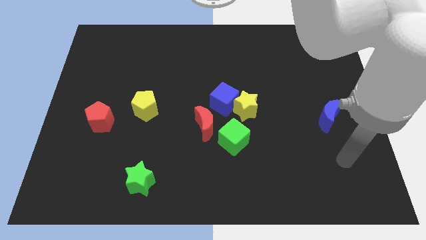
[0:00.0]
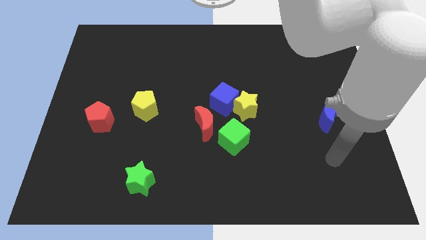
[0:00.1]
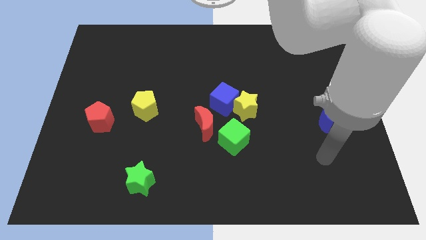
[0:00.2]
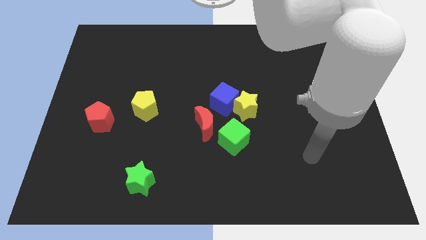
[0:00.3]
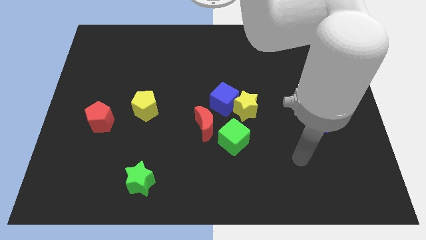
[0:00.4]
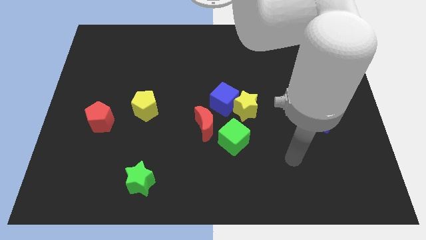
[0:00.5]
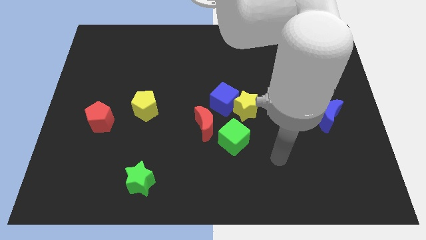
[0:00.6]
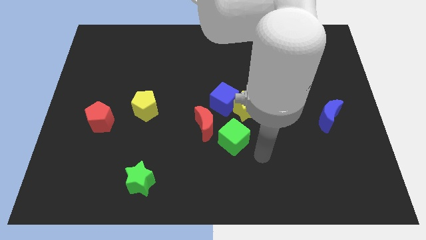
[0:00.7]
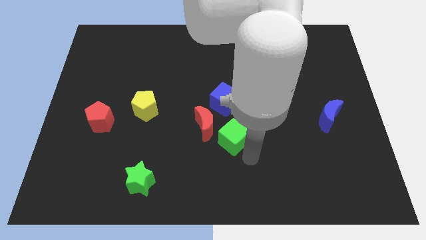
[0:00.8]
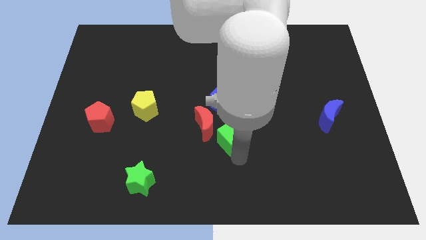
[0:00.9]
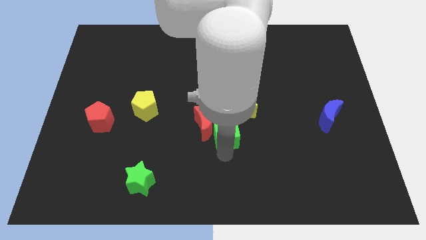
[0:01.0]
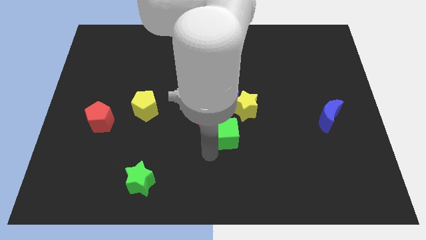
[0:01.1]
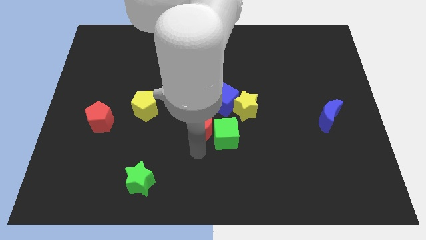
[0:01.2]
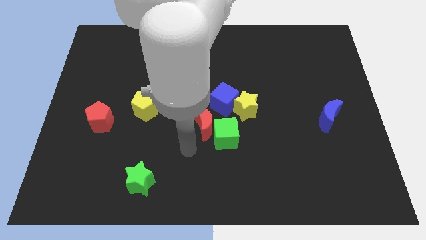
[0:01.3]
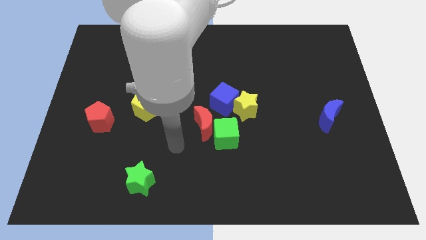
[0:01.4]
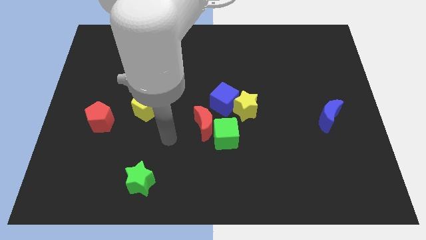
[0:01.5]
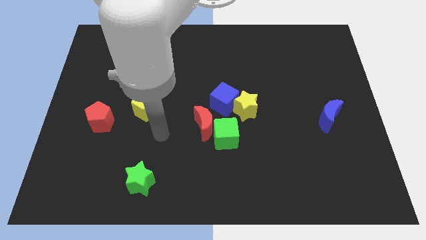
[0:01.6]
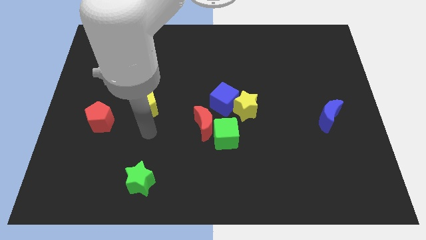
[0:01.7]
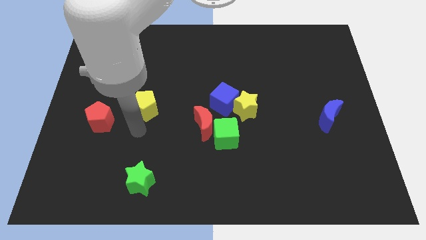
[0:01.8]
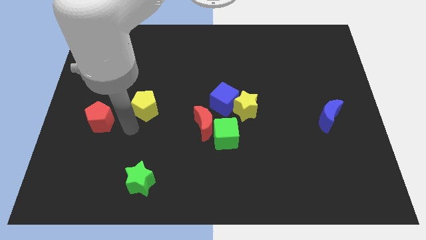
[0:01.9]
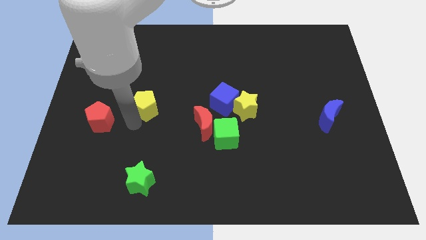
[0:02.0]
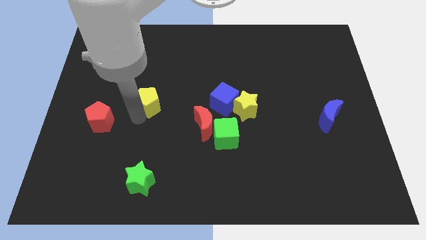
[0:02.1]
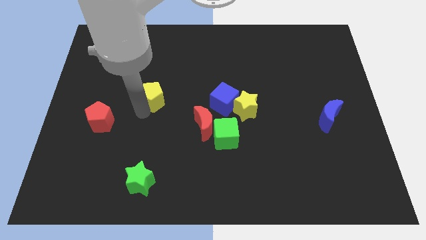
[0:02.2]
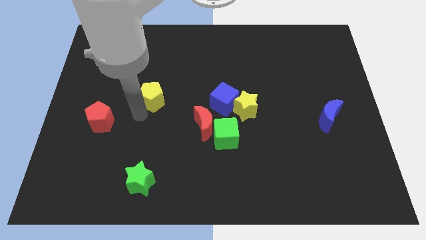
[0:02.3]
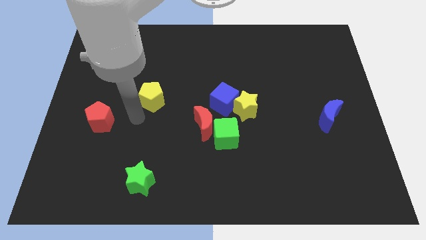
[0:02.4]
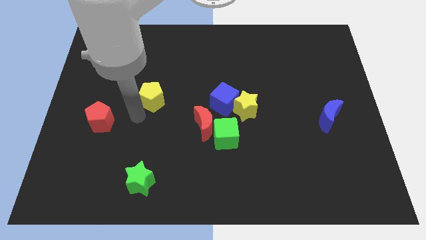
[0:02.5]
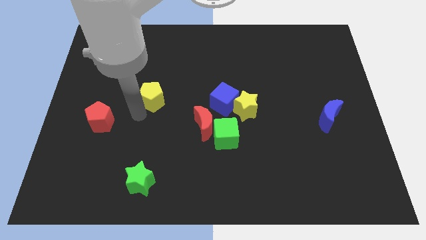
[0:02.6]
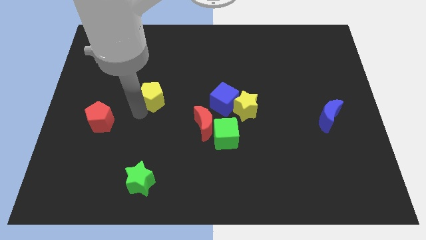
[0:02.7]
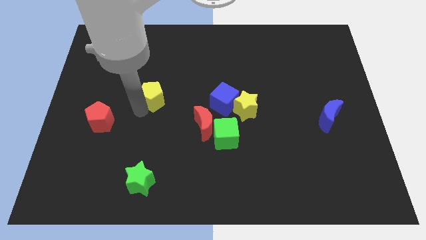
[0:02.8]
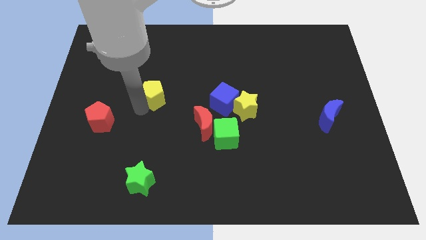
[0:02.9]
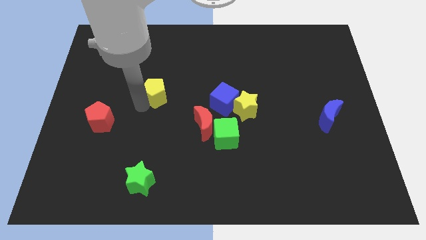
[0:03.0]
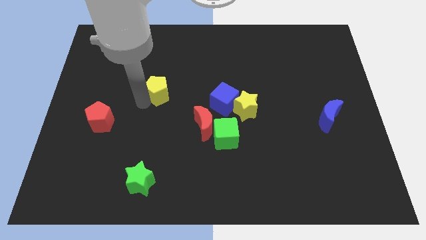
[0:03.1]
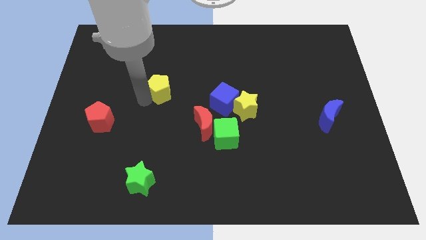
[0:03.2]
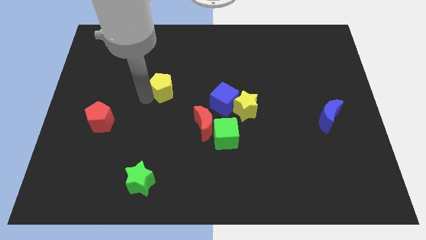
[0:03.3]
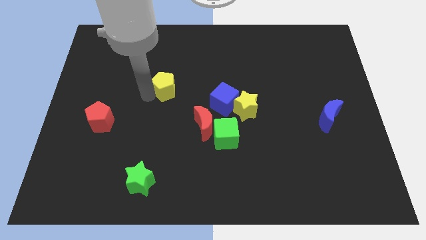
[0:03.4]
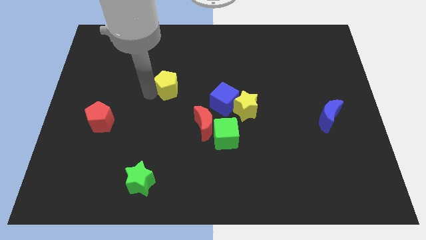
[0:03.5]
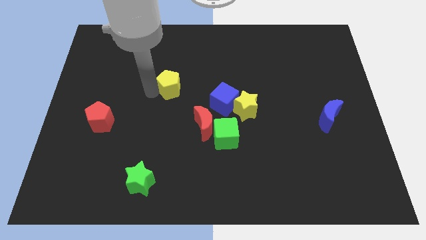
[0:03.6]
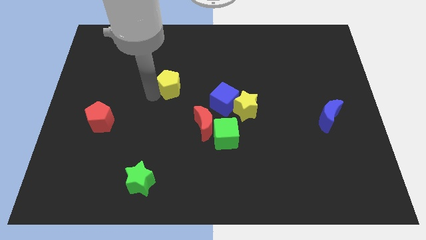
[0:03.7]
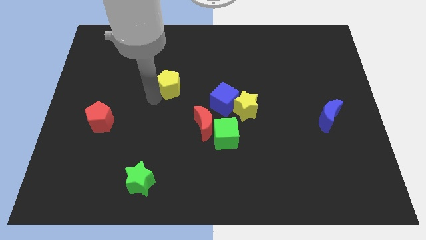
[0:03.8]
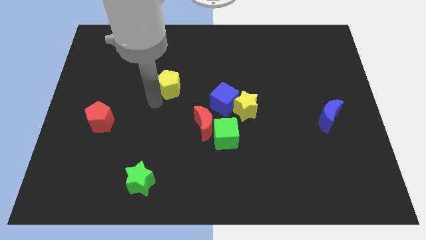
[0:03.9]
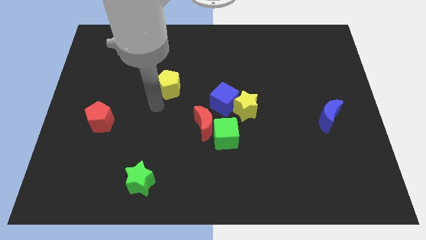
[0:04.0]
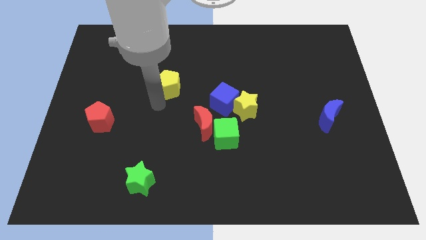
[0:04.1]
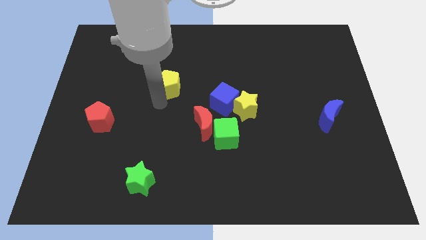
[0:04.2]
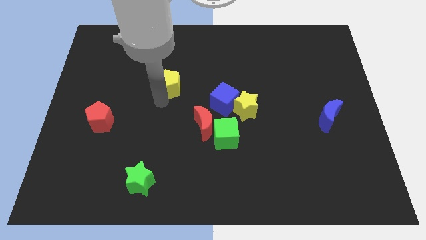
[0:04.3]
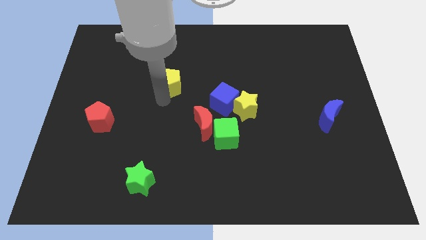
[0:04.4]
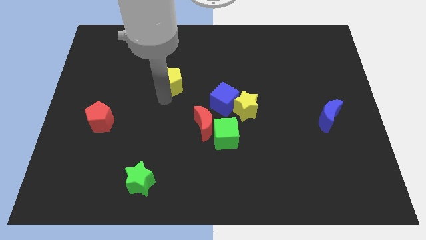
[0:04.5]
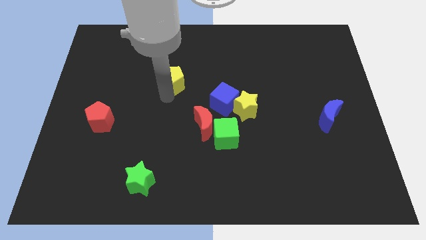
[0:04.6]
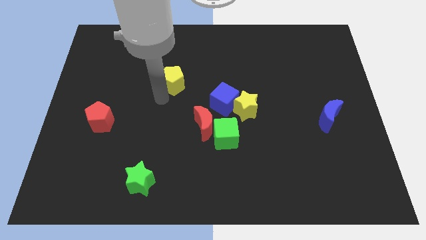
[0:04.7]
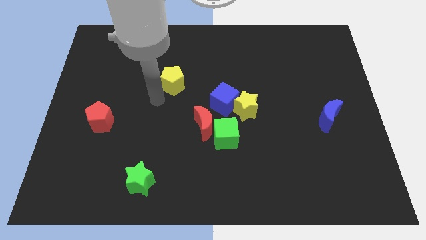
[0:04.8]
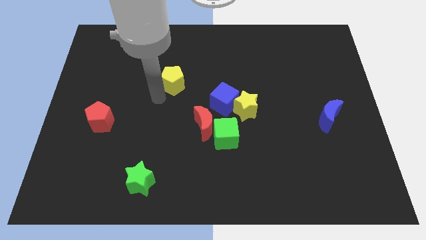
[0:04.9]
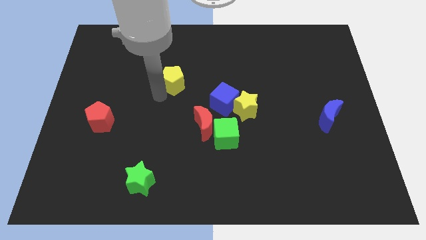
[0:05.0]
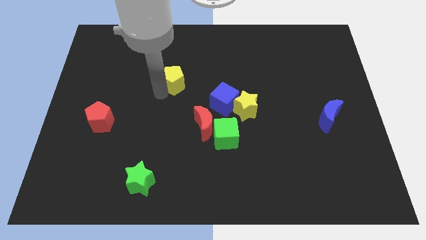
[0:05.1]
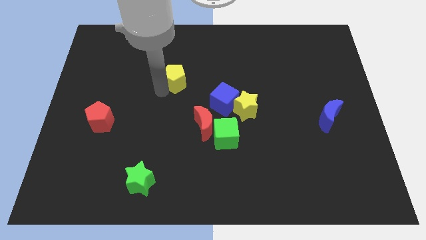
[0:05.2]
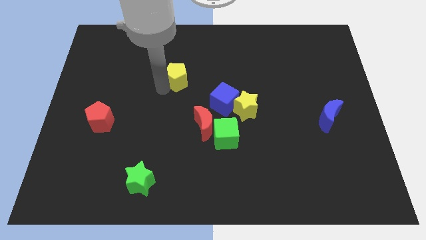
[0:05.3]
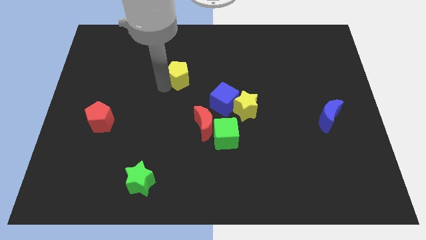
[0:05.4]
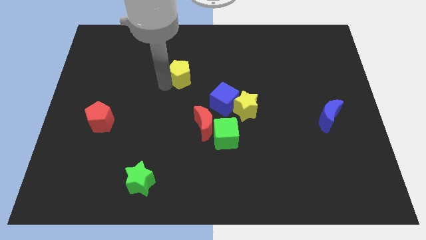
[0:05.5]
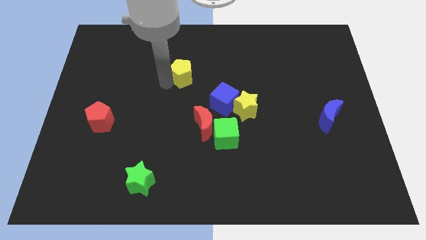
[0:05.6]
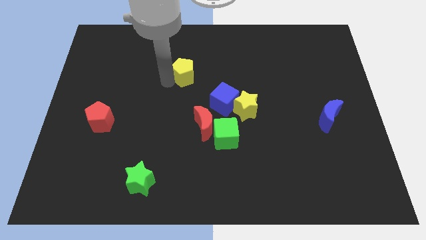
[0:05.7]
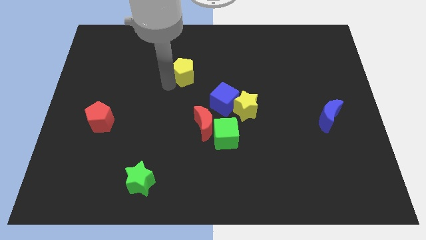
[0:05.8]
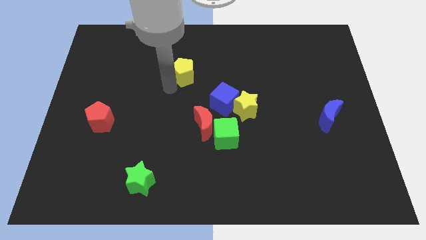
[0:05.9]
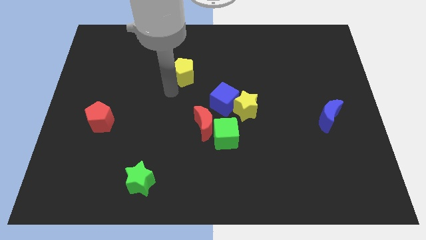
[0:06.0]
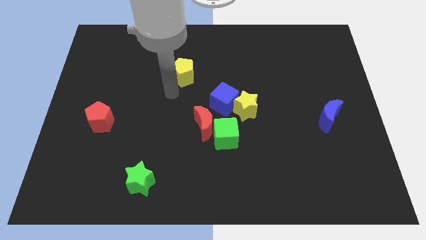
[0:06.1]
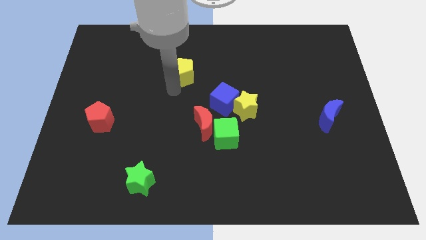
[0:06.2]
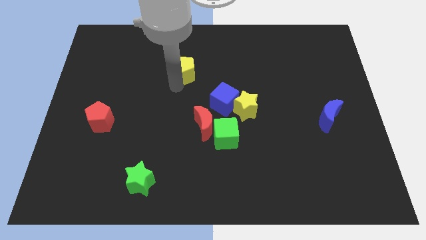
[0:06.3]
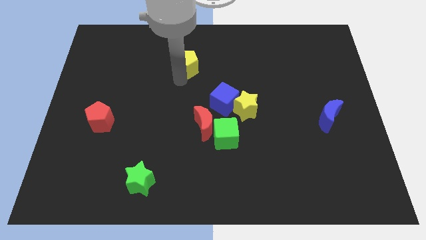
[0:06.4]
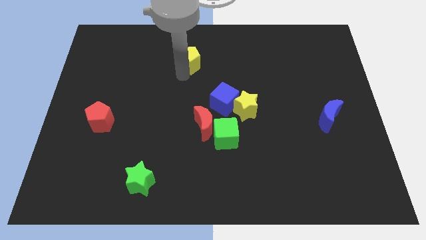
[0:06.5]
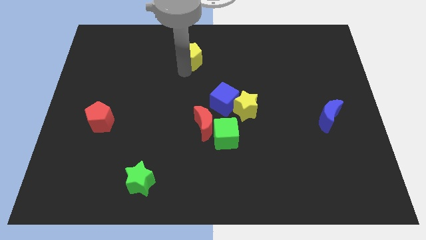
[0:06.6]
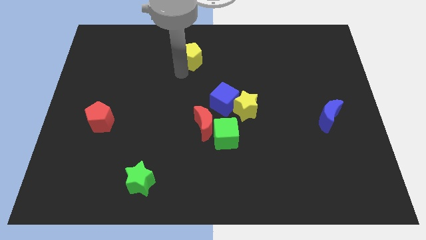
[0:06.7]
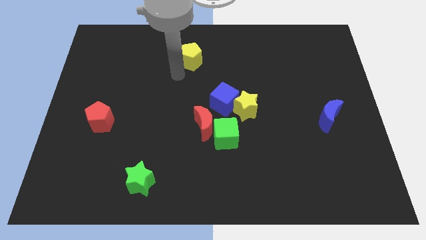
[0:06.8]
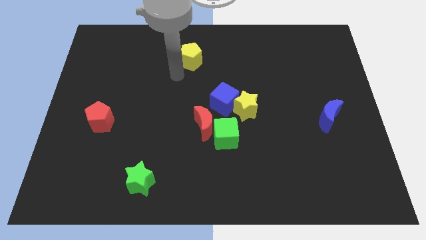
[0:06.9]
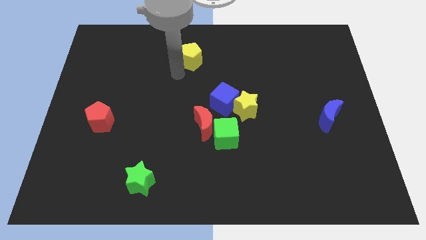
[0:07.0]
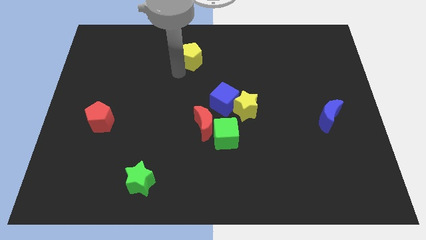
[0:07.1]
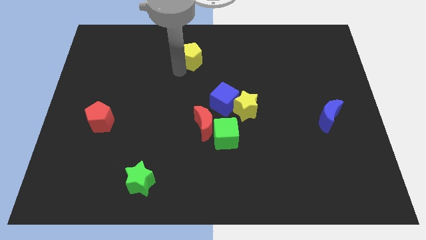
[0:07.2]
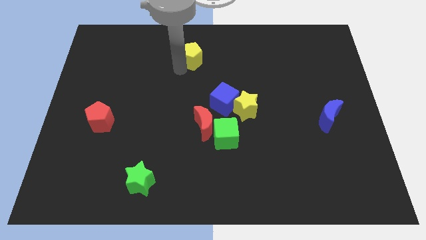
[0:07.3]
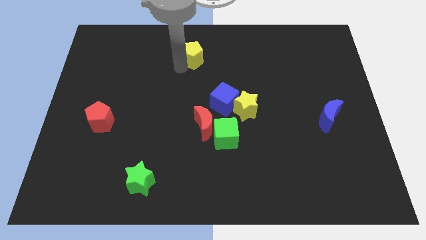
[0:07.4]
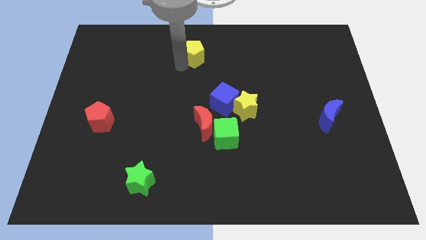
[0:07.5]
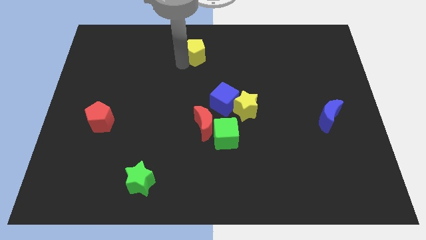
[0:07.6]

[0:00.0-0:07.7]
slide the yellow pentagon to the top side
